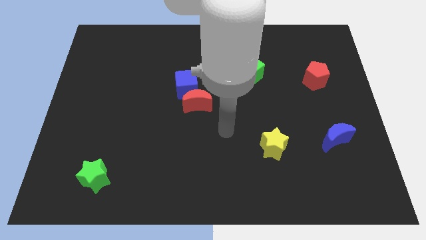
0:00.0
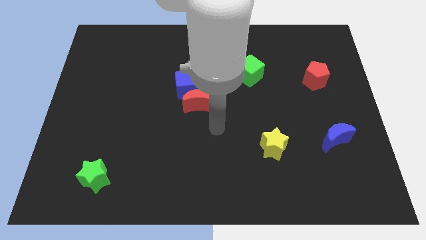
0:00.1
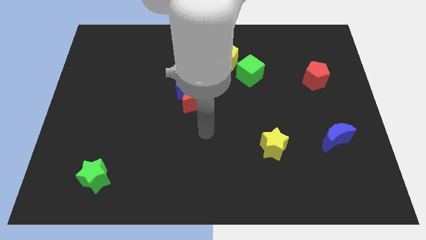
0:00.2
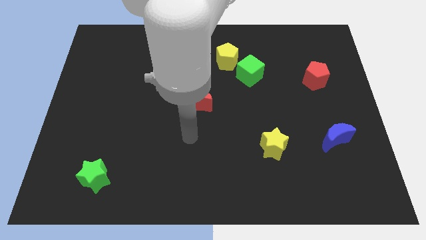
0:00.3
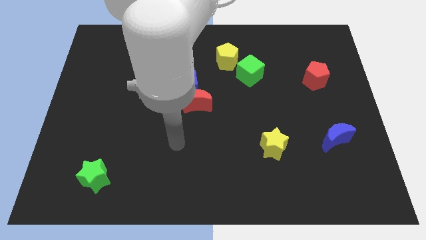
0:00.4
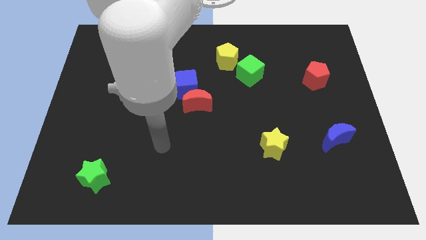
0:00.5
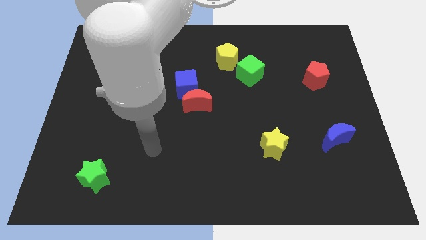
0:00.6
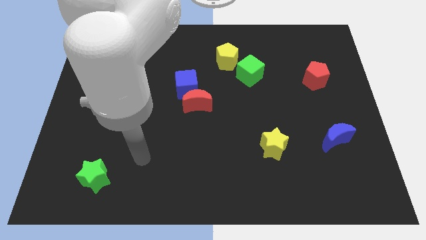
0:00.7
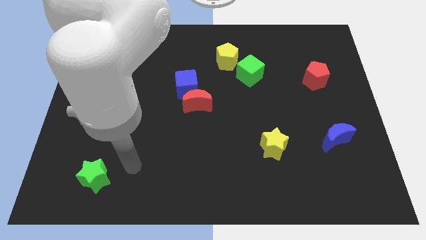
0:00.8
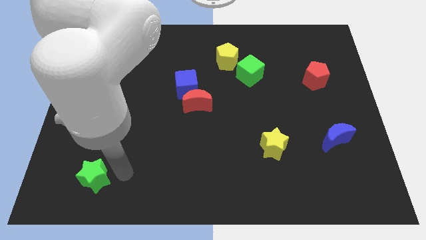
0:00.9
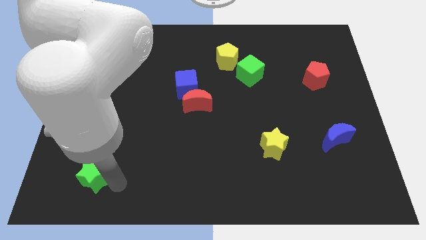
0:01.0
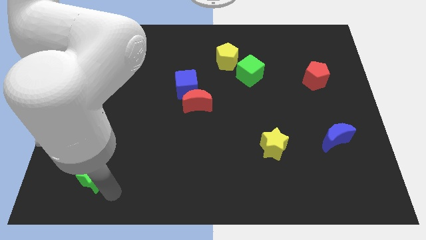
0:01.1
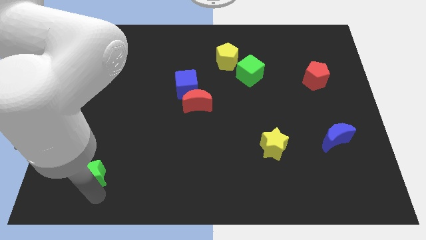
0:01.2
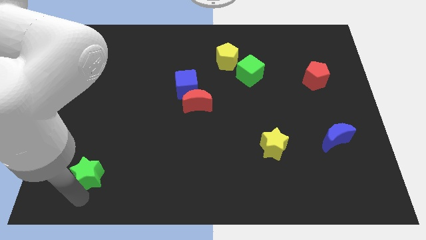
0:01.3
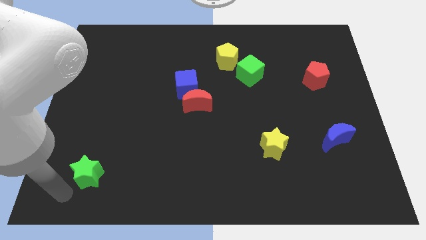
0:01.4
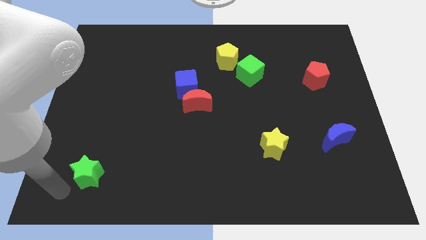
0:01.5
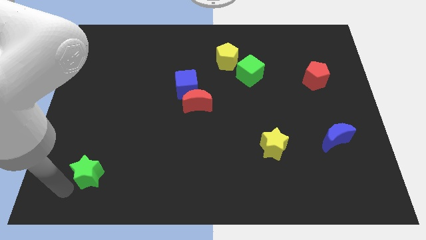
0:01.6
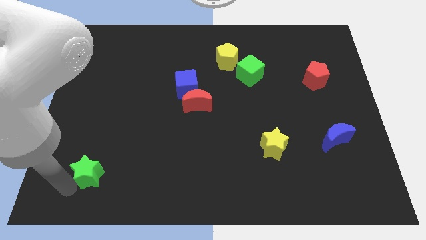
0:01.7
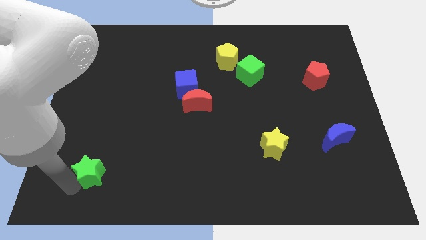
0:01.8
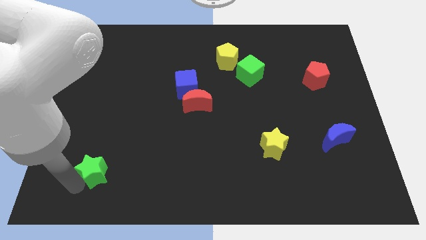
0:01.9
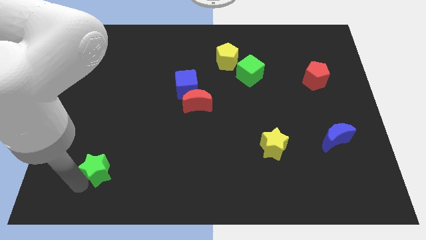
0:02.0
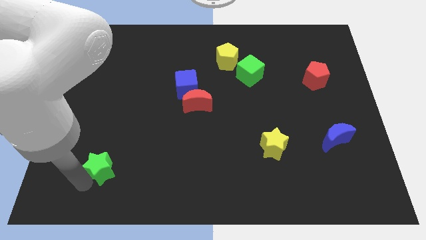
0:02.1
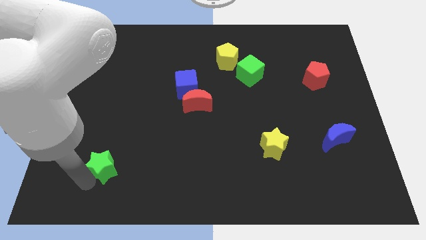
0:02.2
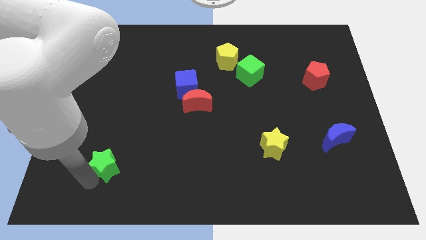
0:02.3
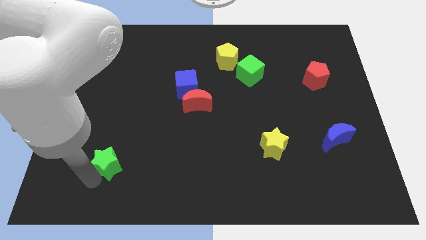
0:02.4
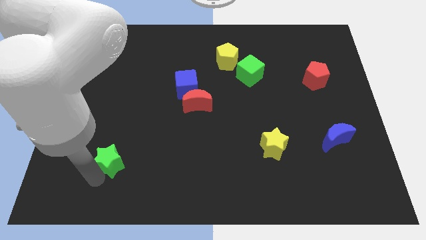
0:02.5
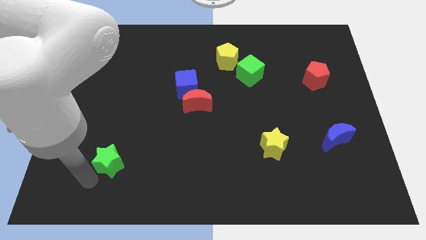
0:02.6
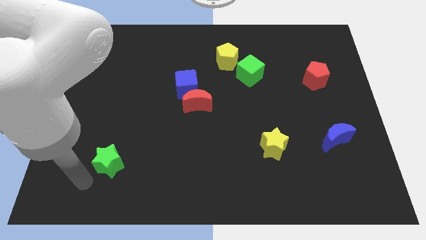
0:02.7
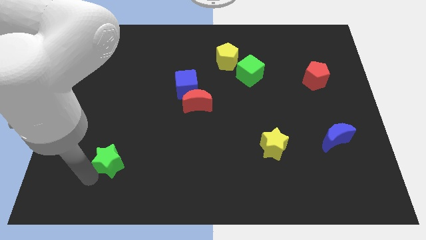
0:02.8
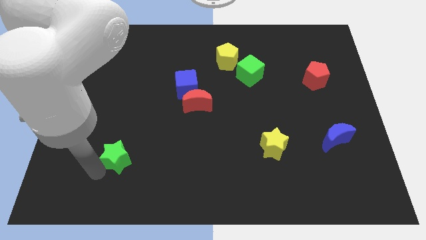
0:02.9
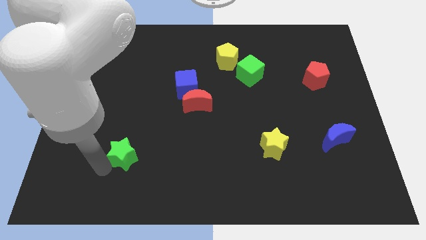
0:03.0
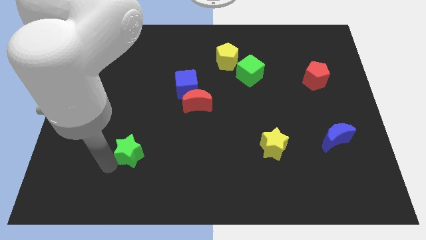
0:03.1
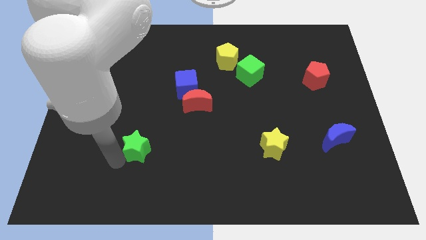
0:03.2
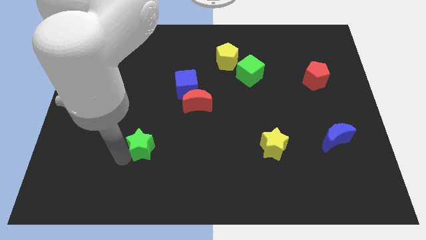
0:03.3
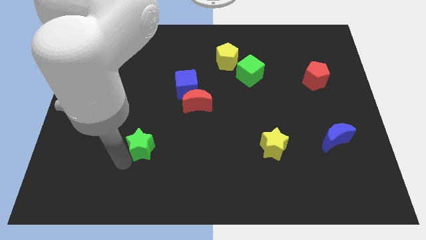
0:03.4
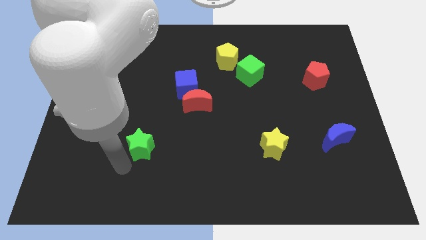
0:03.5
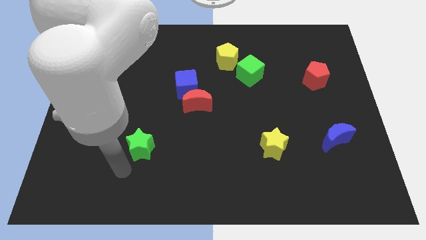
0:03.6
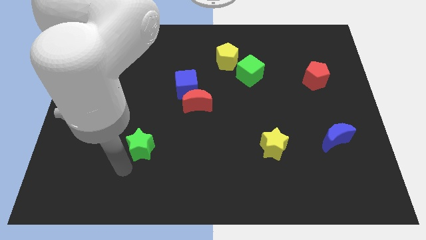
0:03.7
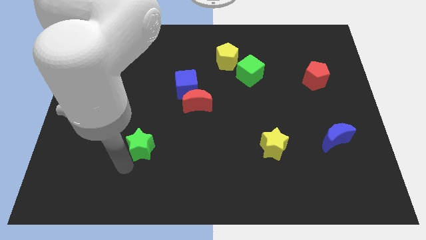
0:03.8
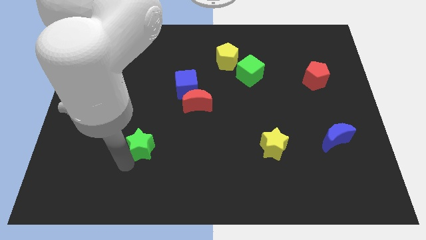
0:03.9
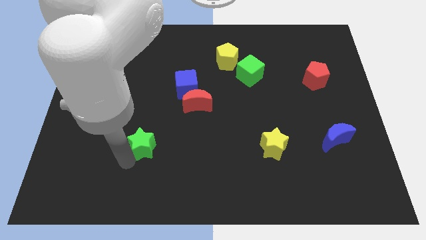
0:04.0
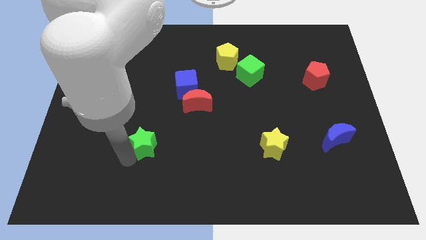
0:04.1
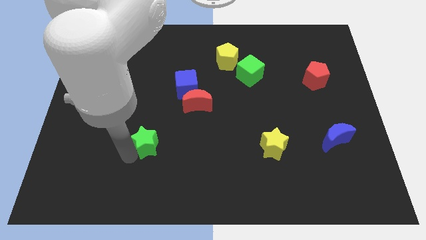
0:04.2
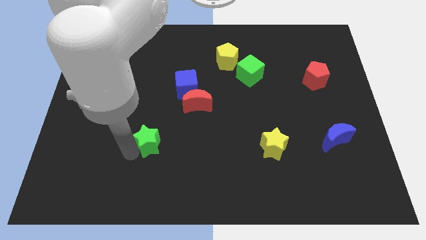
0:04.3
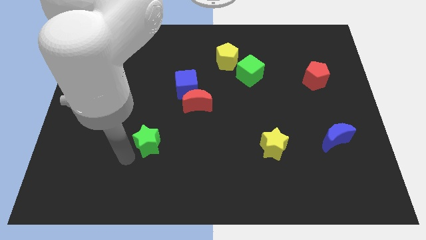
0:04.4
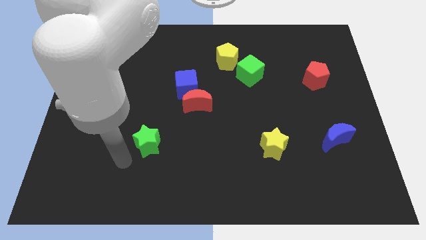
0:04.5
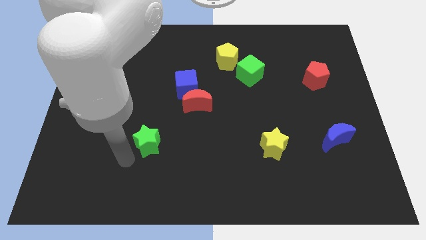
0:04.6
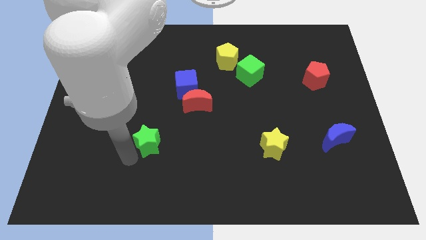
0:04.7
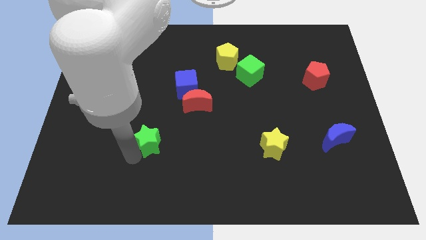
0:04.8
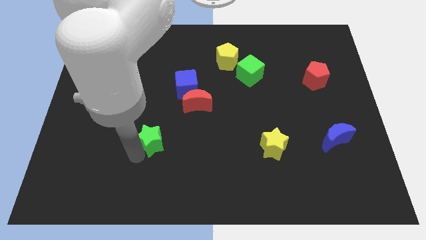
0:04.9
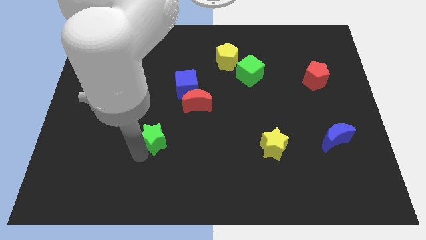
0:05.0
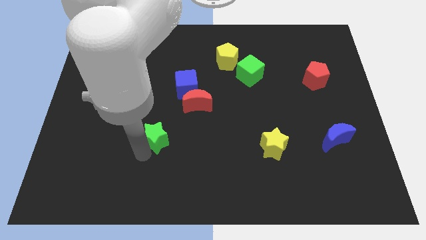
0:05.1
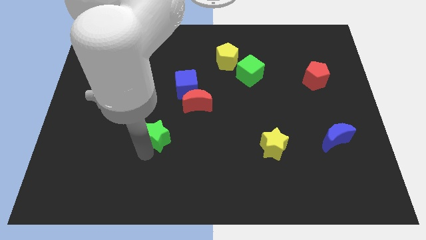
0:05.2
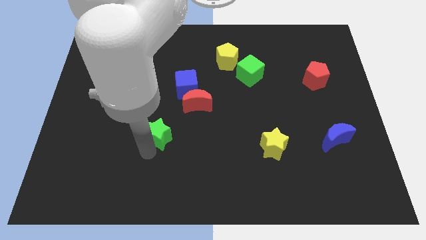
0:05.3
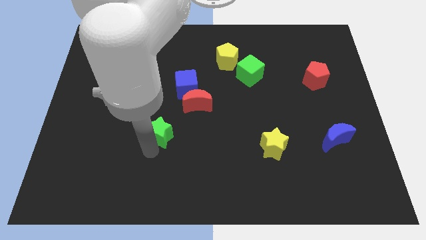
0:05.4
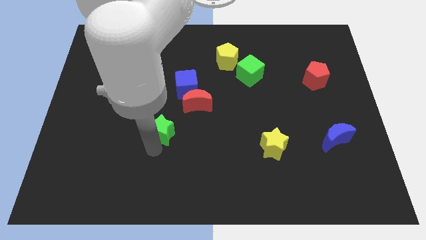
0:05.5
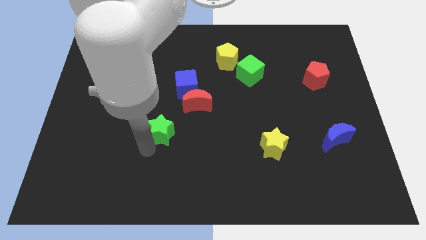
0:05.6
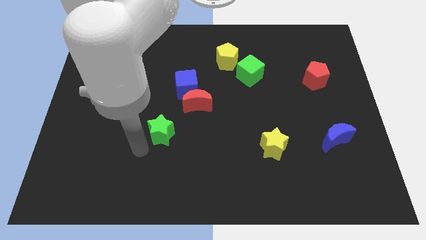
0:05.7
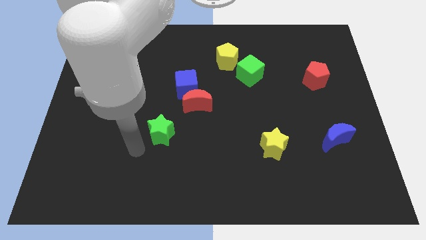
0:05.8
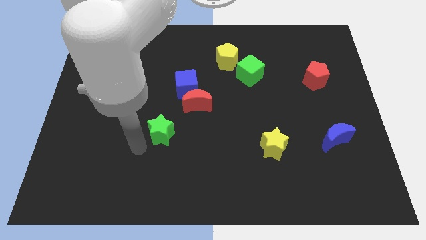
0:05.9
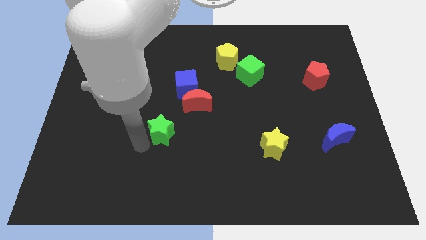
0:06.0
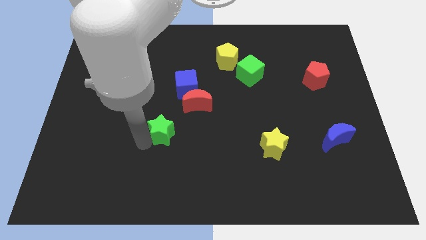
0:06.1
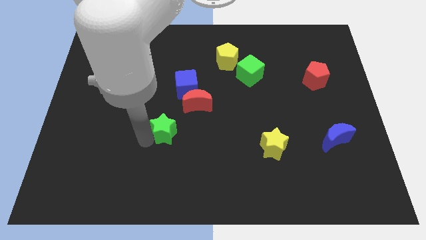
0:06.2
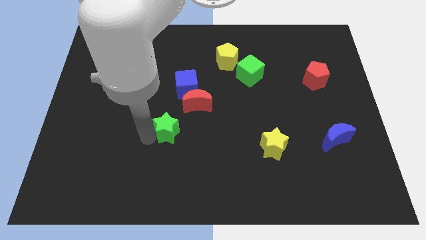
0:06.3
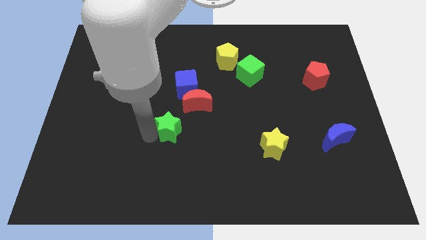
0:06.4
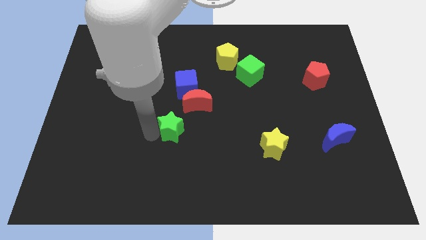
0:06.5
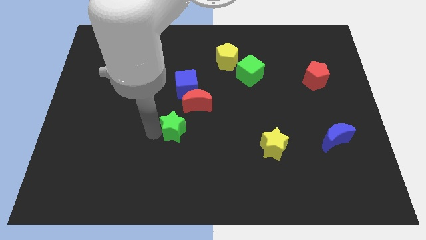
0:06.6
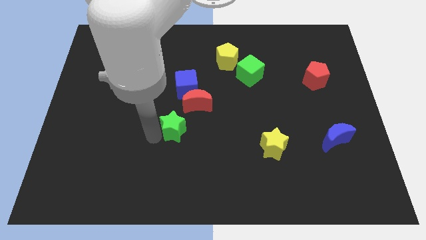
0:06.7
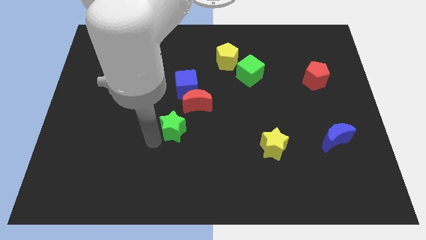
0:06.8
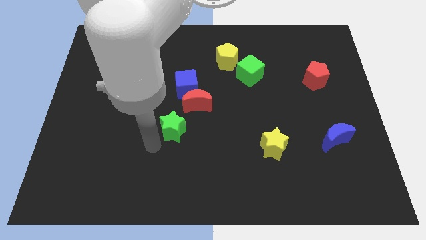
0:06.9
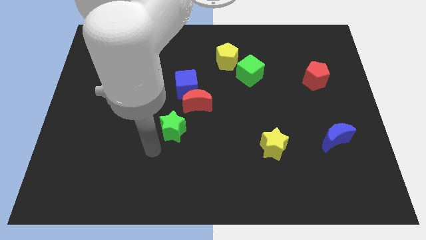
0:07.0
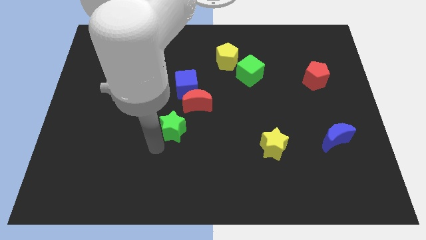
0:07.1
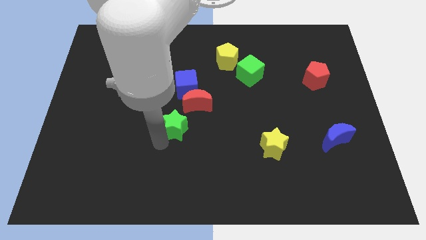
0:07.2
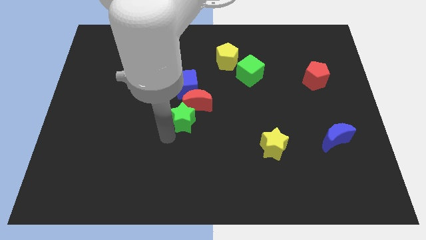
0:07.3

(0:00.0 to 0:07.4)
put the green star next to the red moon
